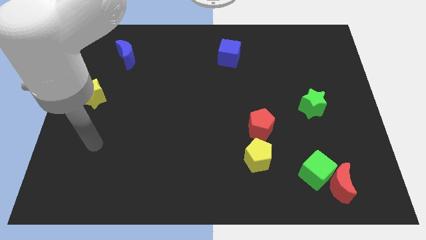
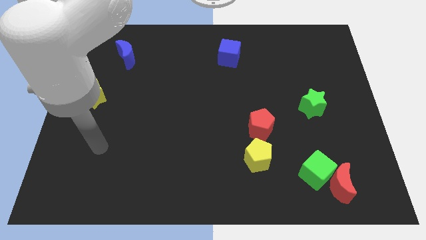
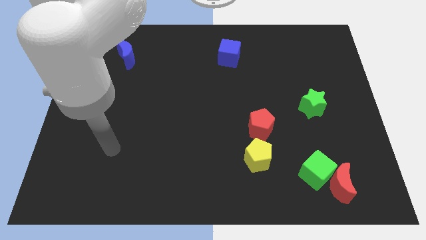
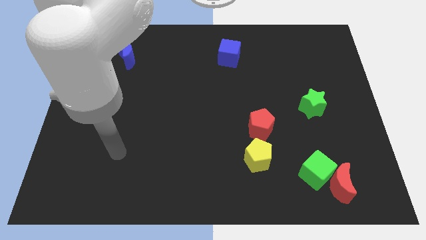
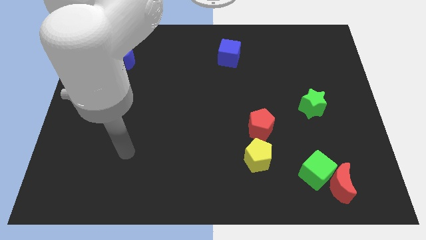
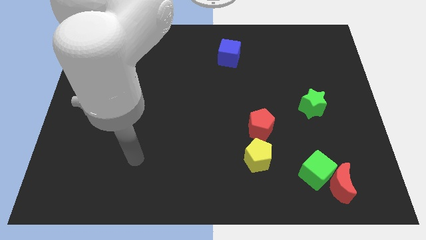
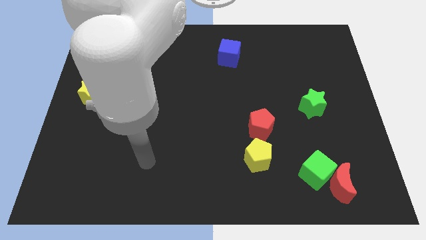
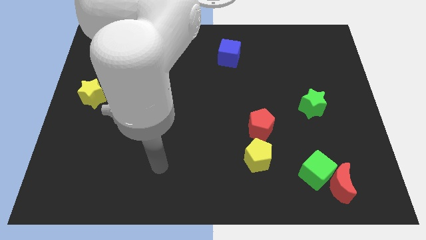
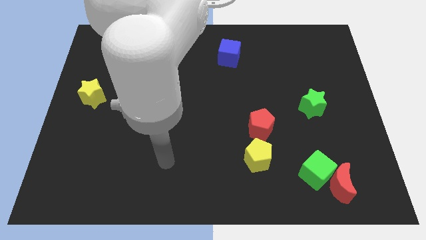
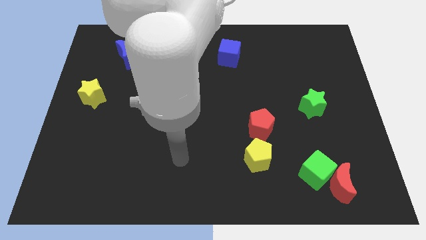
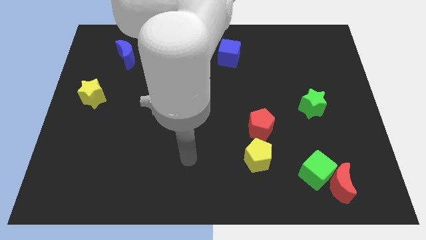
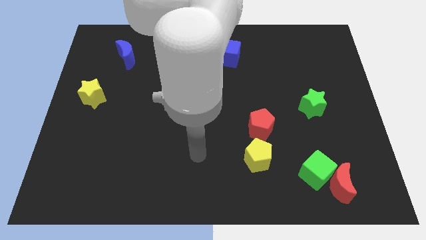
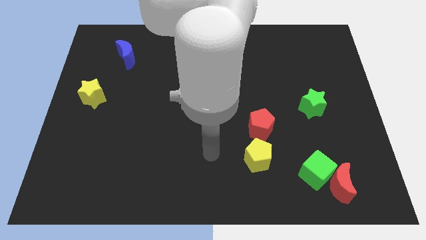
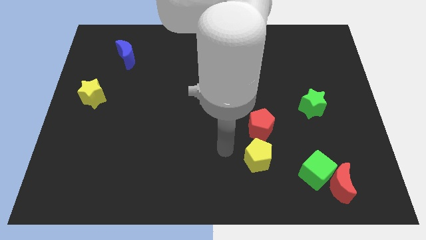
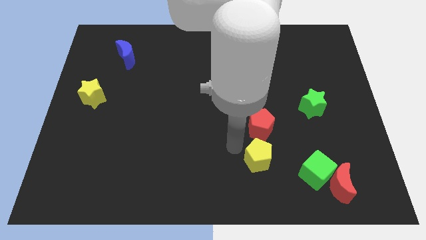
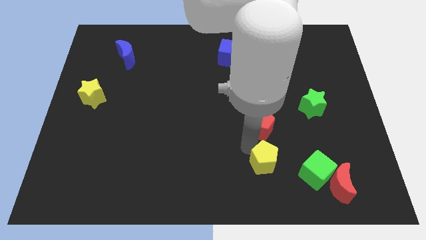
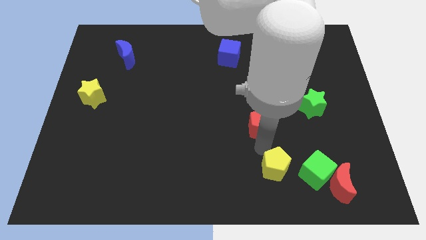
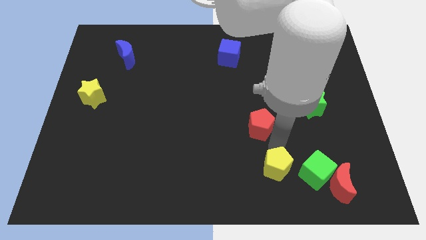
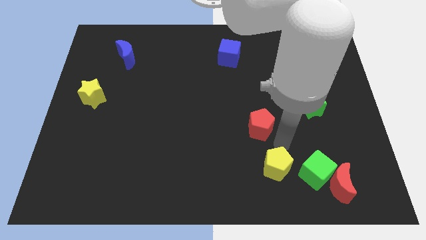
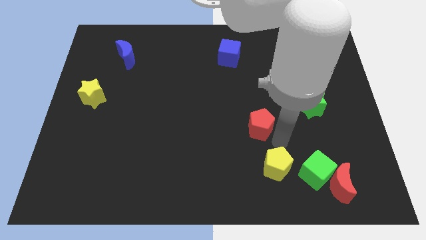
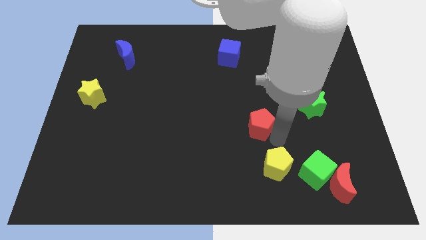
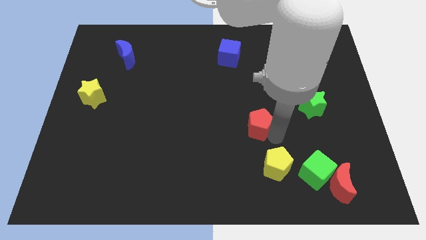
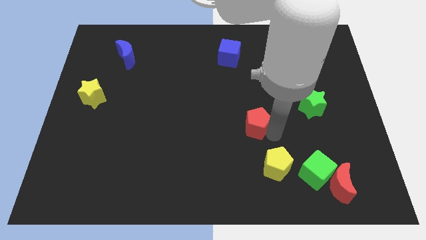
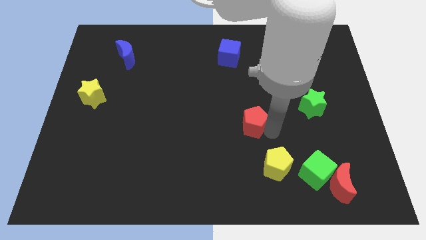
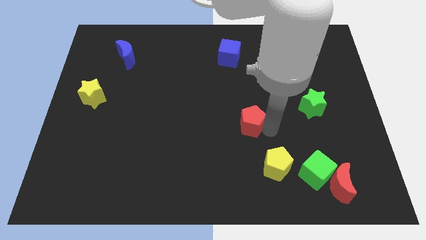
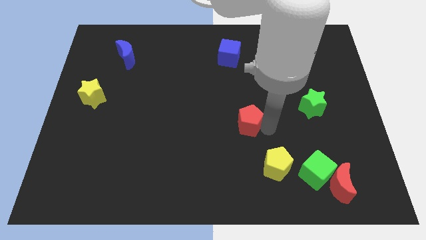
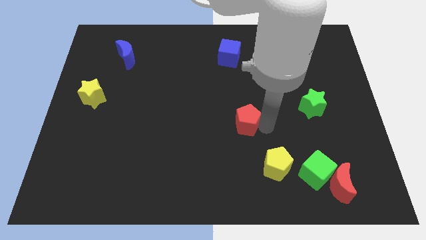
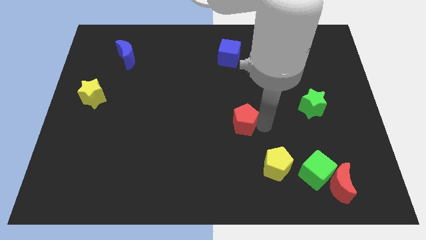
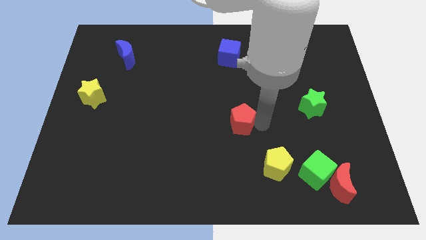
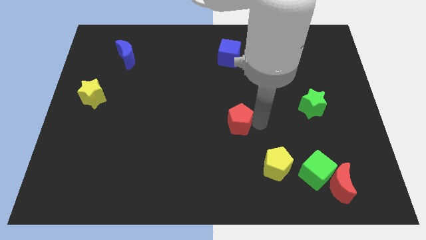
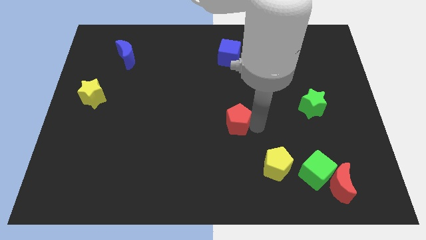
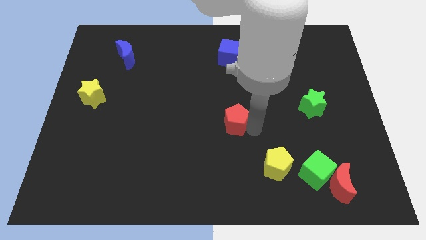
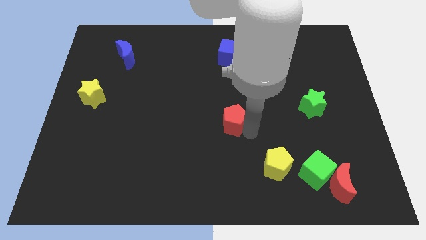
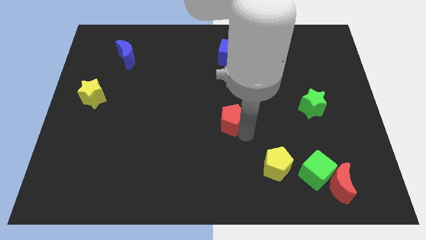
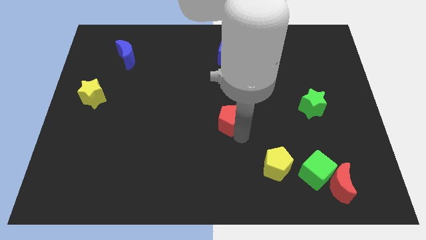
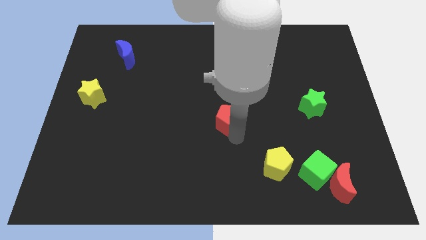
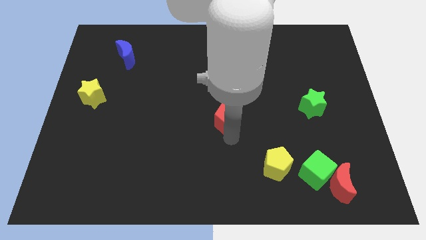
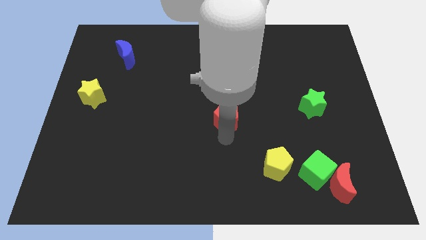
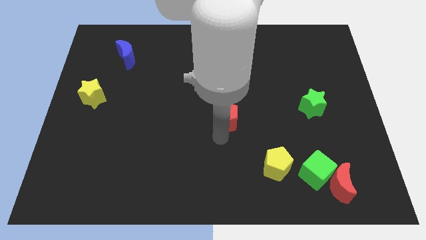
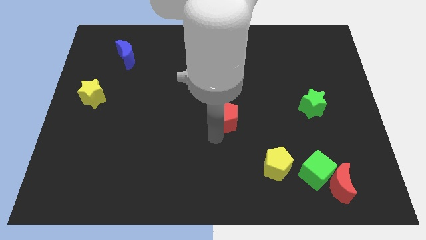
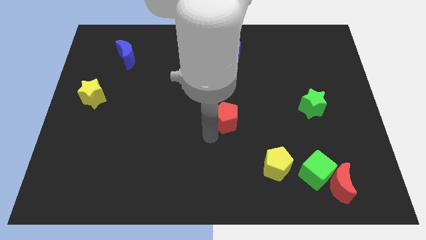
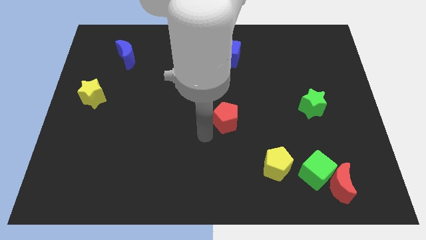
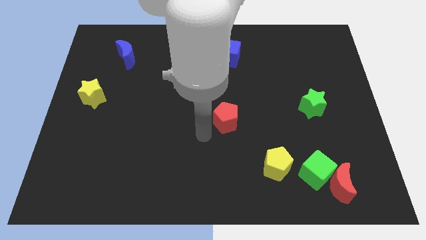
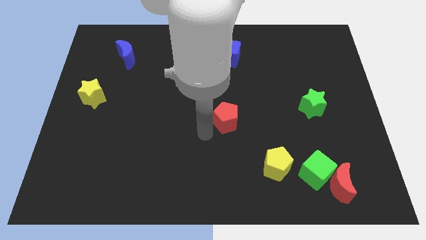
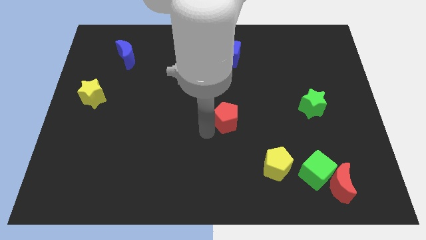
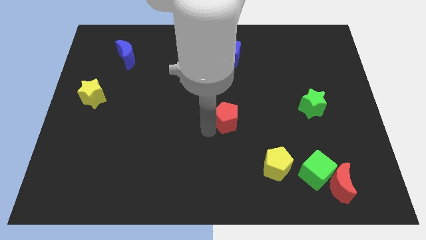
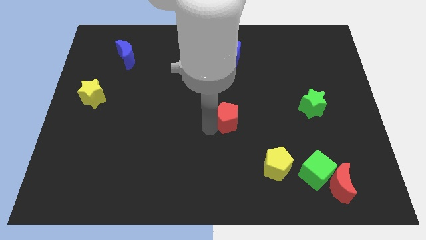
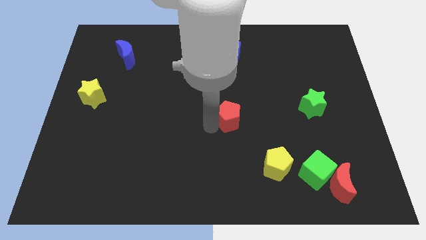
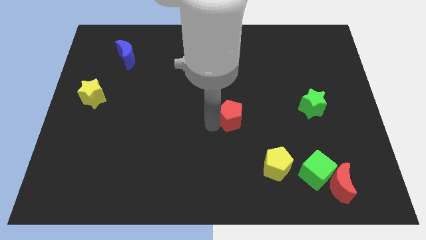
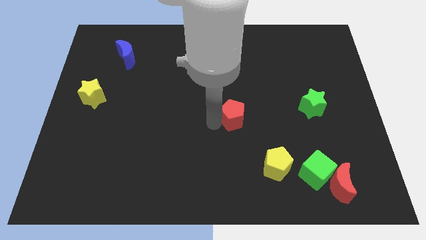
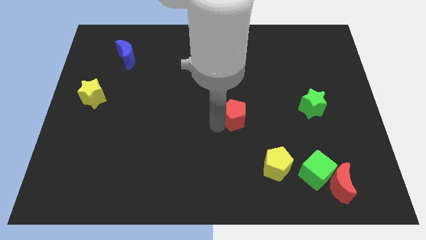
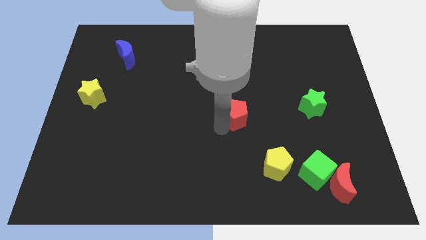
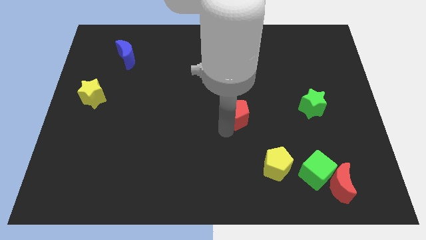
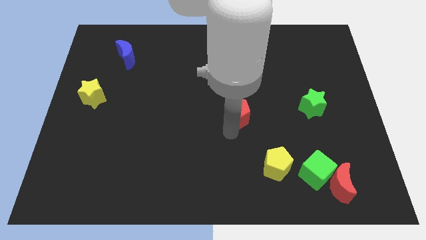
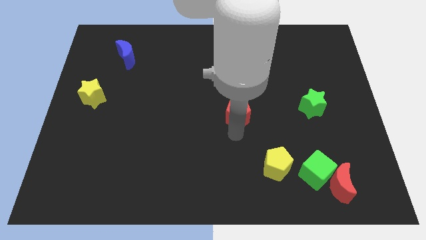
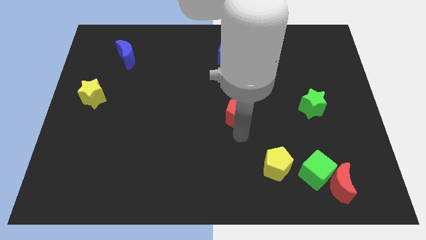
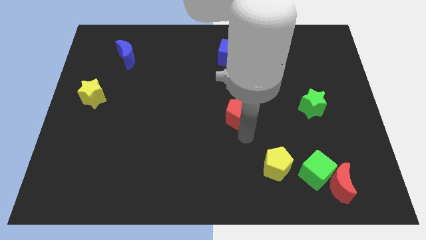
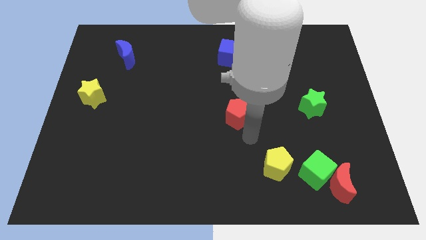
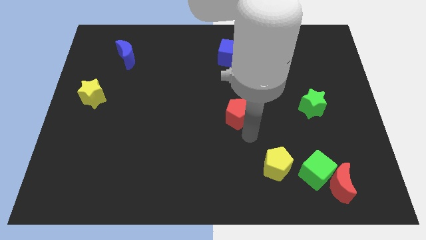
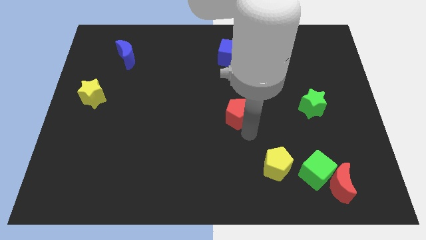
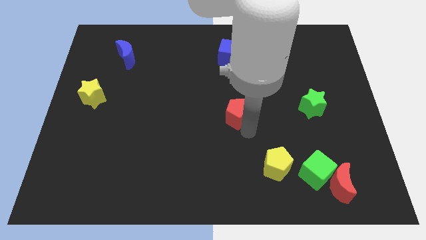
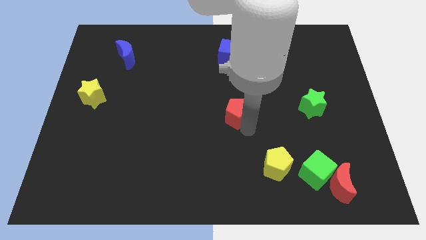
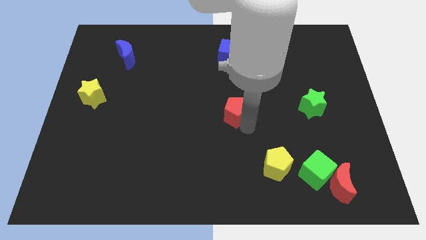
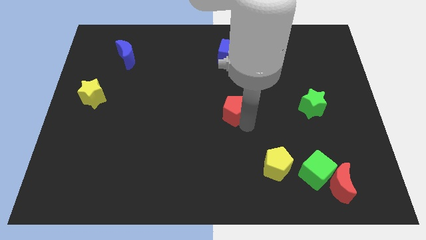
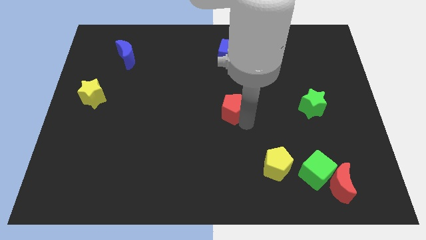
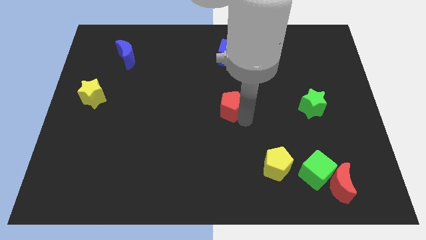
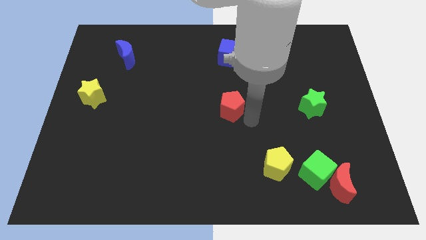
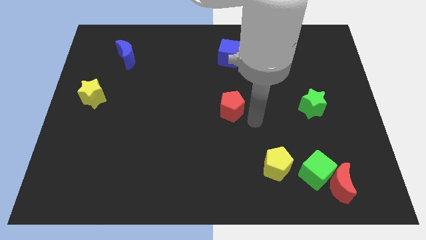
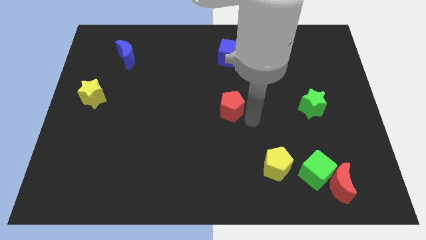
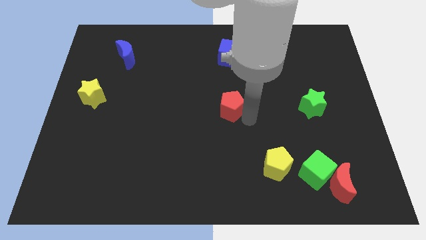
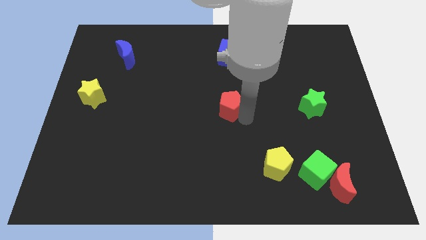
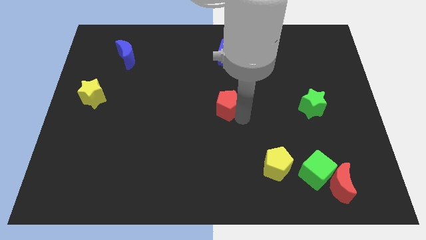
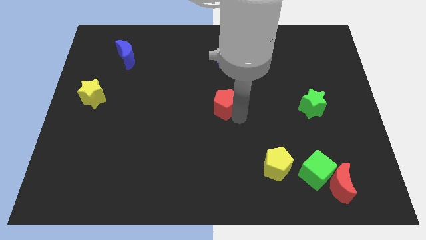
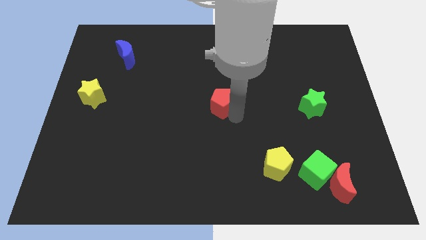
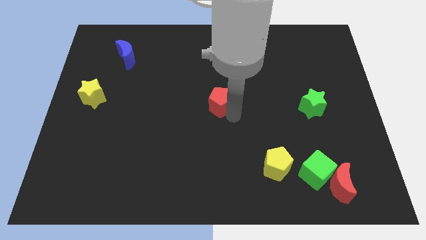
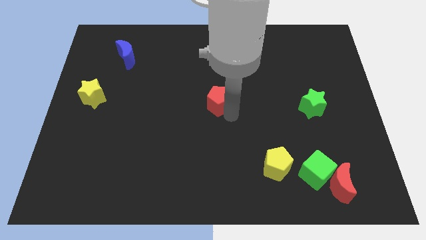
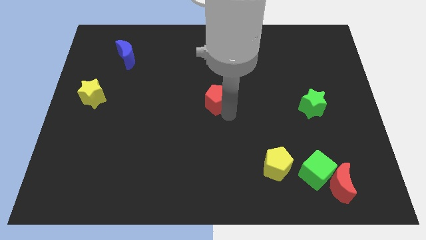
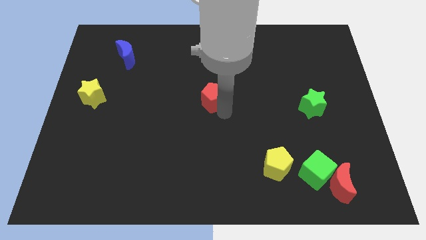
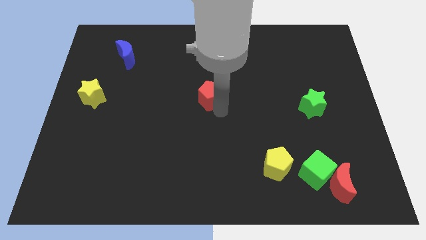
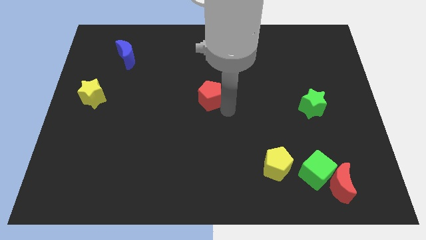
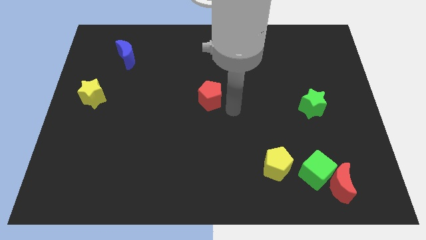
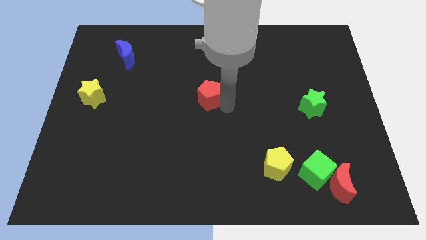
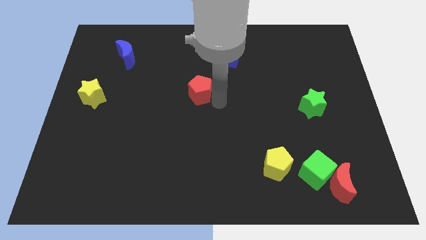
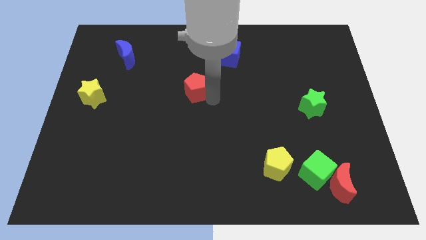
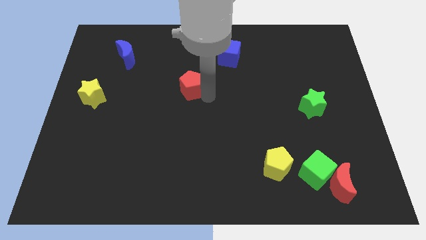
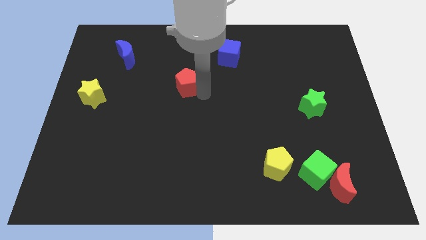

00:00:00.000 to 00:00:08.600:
slide the red pentagon diagonally upwards and left
